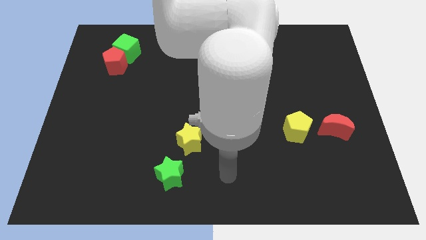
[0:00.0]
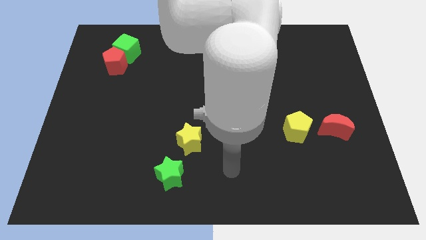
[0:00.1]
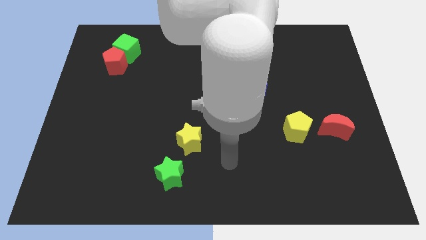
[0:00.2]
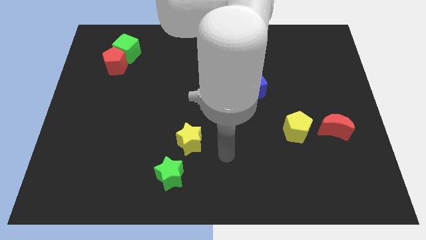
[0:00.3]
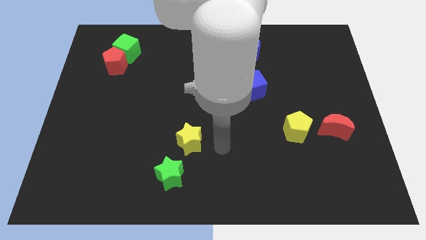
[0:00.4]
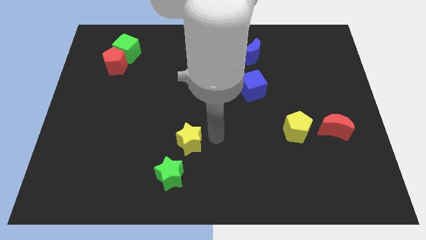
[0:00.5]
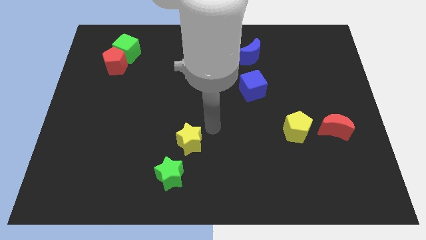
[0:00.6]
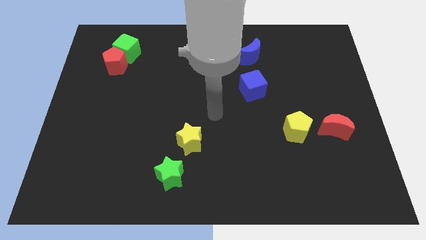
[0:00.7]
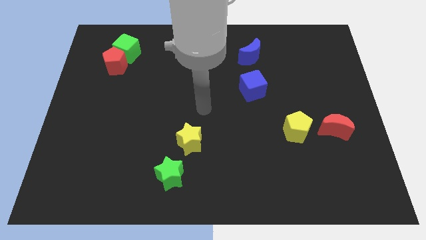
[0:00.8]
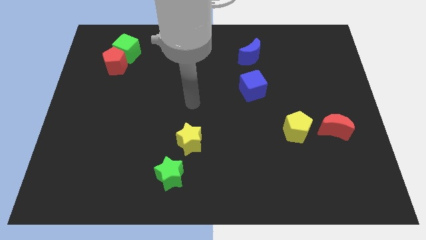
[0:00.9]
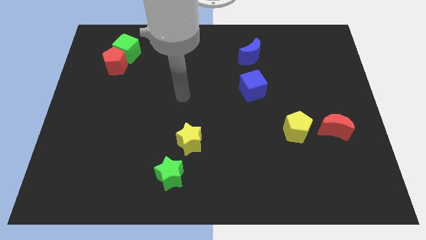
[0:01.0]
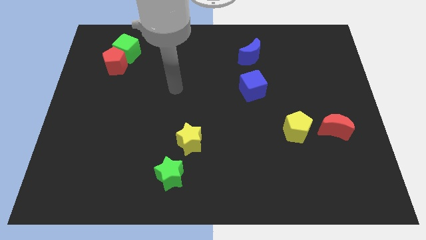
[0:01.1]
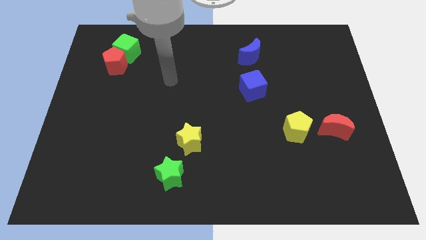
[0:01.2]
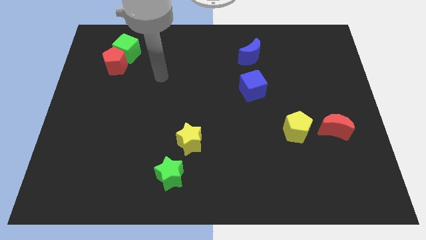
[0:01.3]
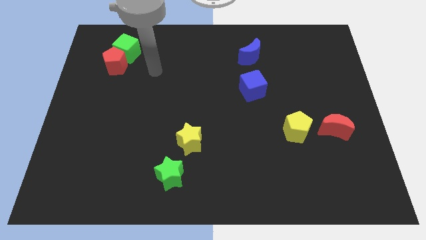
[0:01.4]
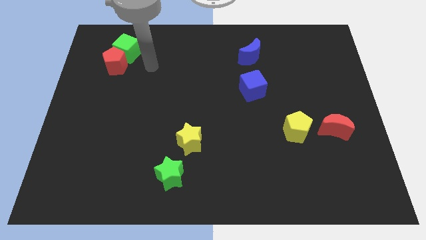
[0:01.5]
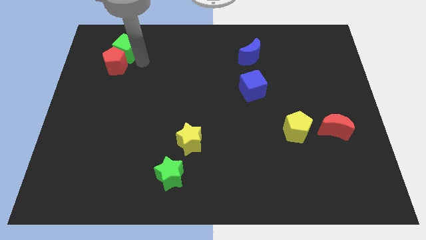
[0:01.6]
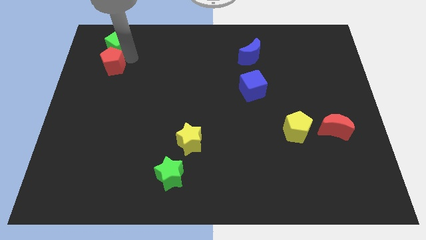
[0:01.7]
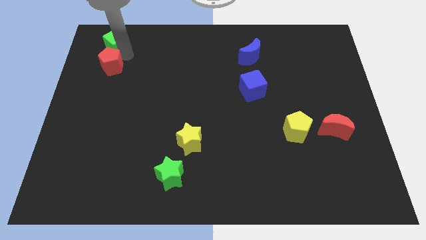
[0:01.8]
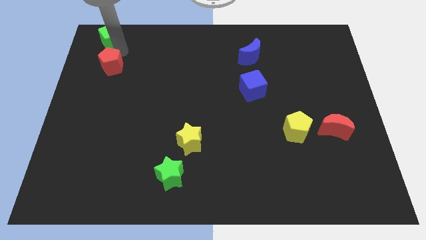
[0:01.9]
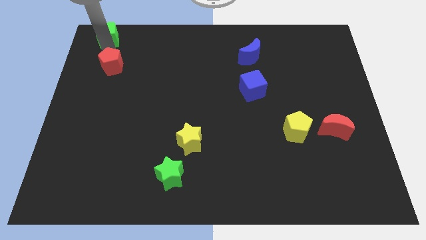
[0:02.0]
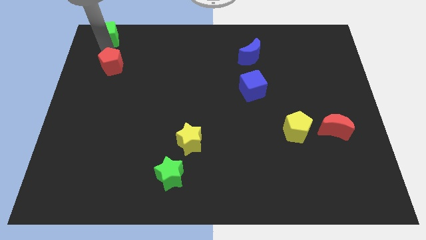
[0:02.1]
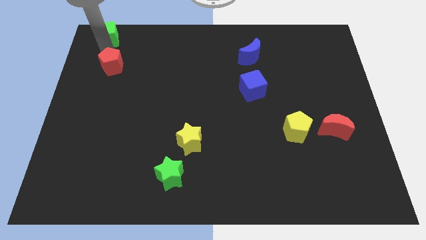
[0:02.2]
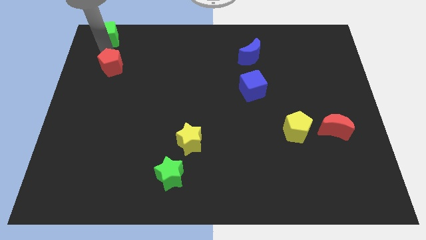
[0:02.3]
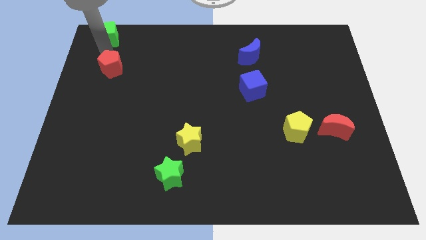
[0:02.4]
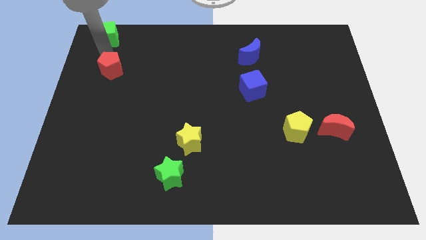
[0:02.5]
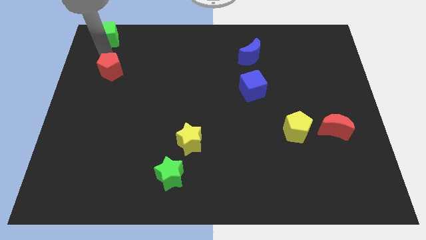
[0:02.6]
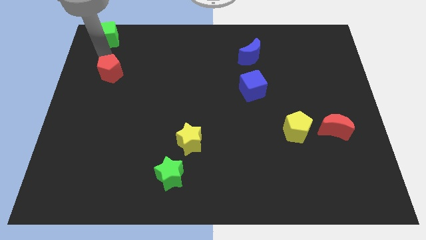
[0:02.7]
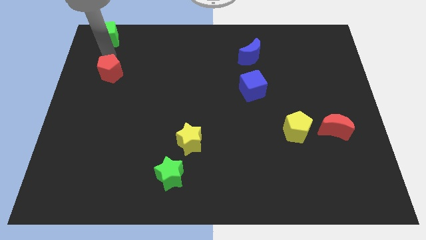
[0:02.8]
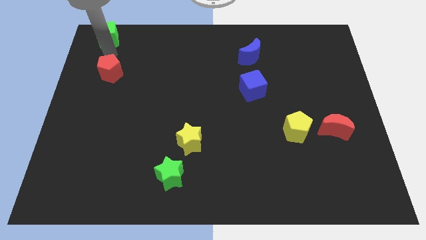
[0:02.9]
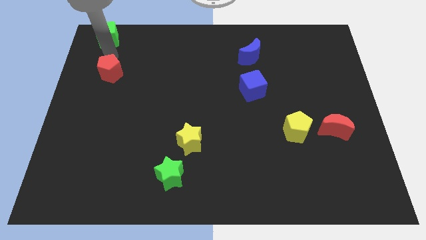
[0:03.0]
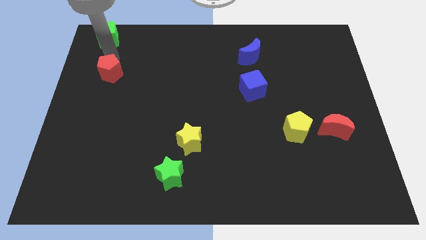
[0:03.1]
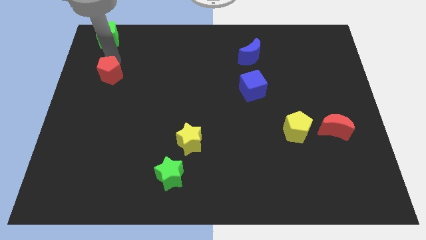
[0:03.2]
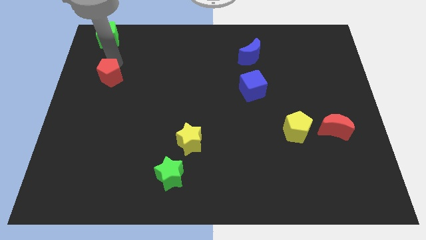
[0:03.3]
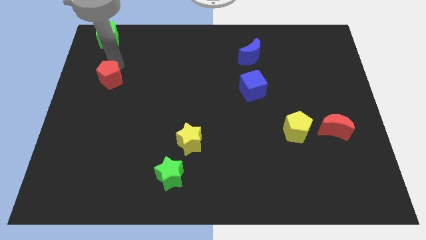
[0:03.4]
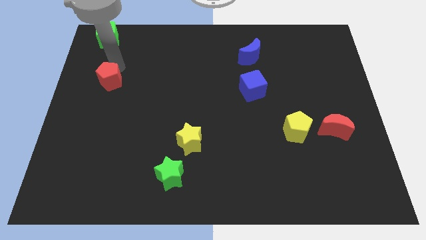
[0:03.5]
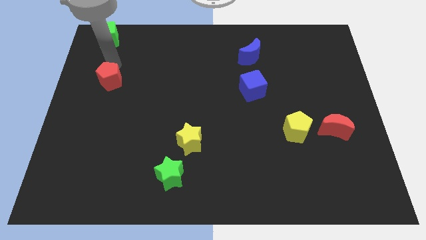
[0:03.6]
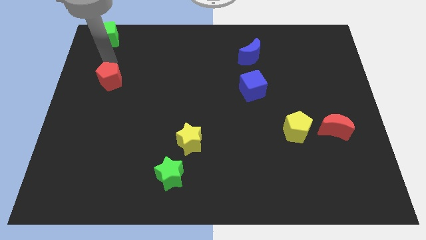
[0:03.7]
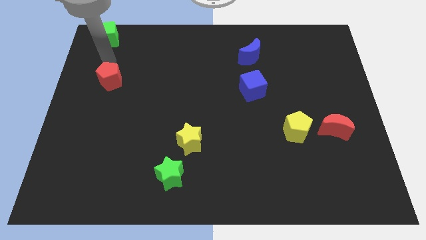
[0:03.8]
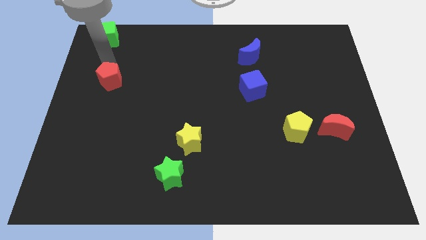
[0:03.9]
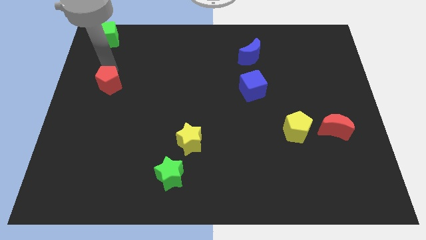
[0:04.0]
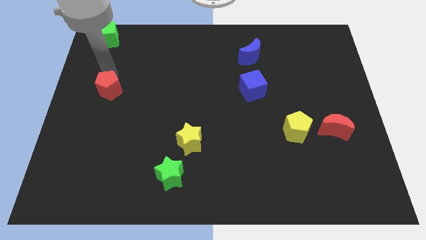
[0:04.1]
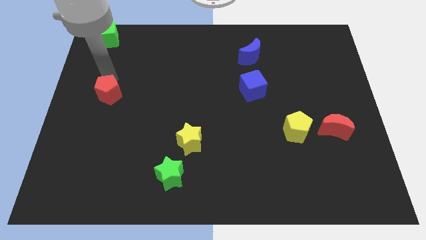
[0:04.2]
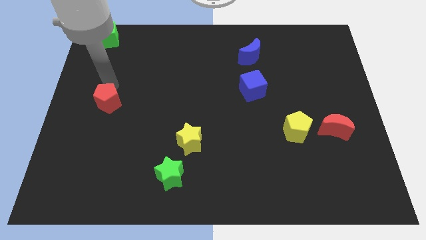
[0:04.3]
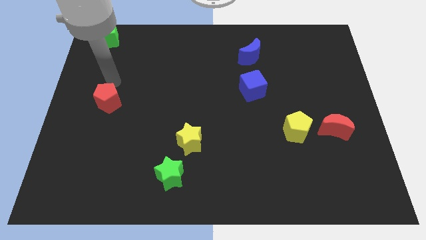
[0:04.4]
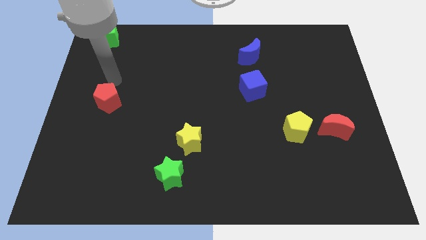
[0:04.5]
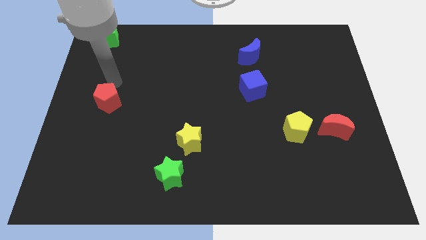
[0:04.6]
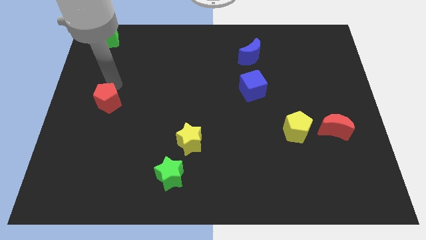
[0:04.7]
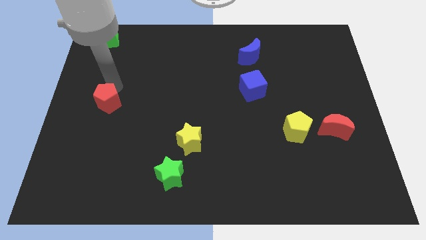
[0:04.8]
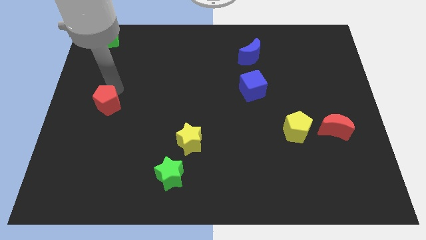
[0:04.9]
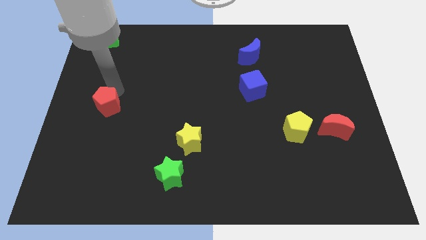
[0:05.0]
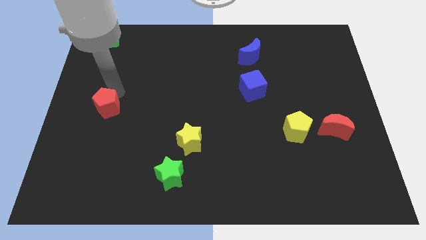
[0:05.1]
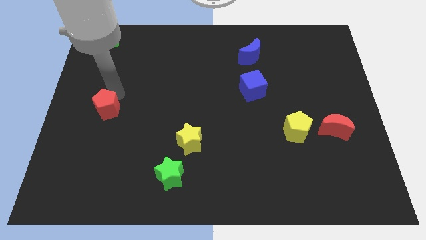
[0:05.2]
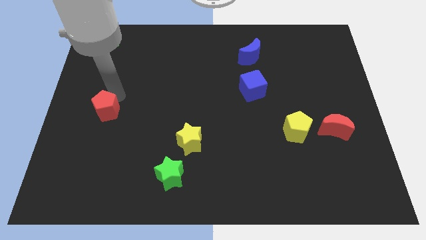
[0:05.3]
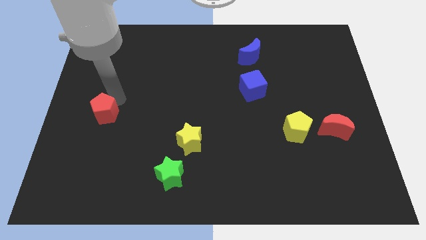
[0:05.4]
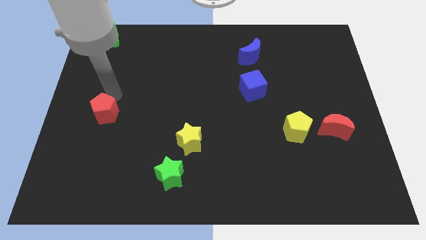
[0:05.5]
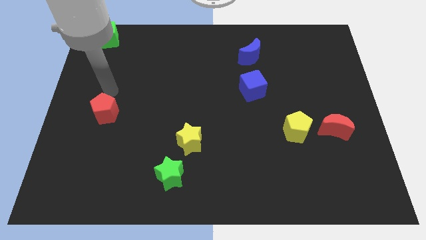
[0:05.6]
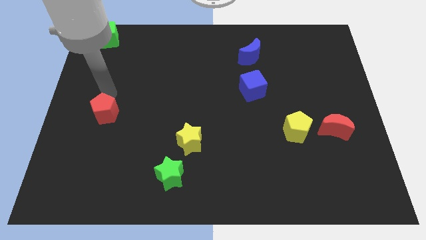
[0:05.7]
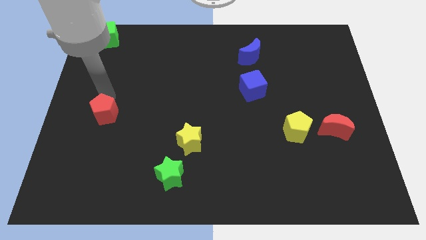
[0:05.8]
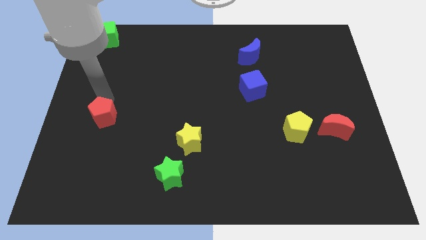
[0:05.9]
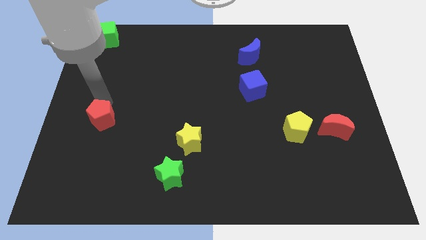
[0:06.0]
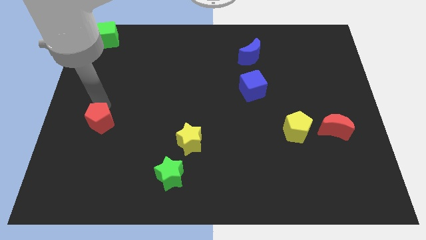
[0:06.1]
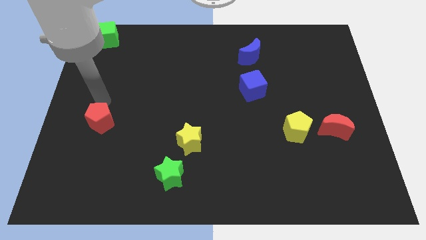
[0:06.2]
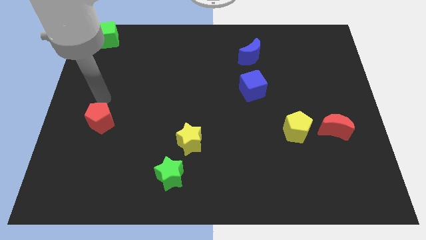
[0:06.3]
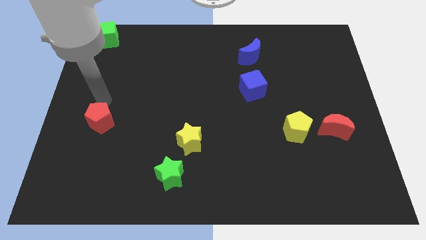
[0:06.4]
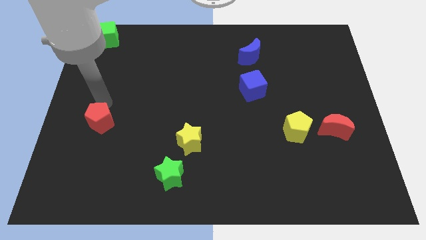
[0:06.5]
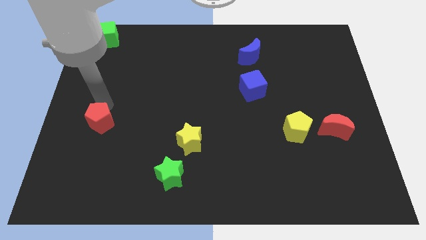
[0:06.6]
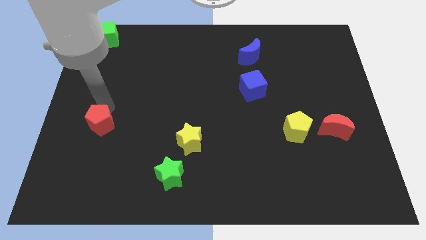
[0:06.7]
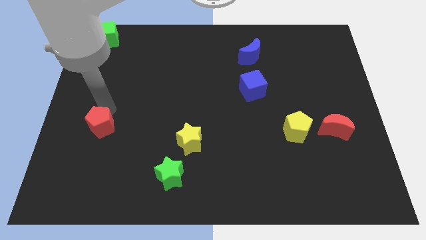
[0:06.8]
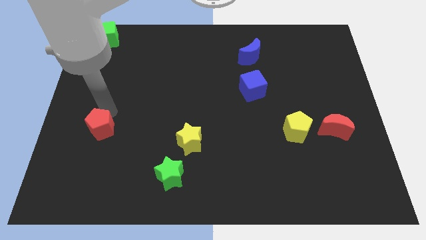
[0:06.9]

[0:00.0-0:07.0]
move the red pentagon downwards

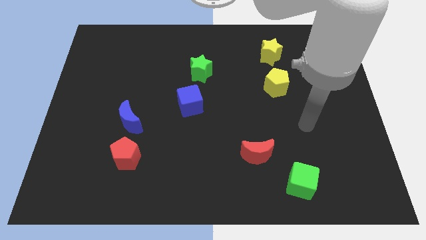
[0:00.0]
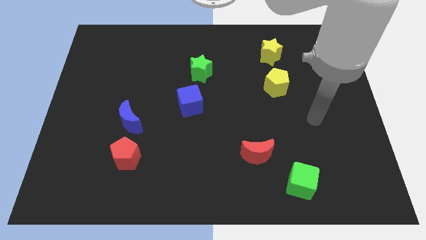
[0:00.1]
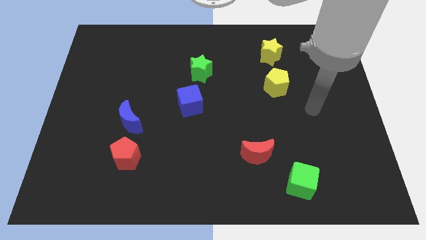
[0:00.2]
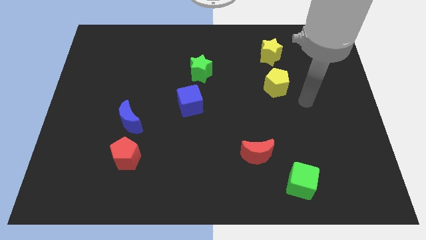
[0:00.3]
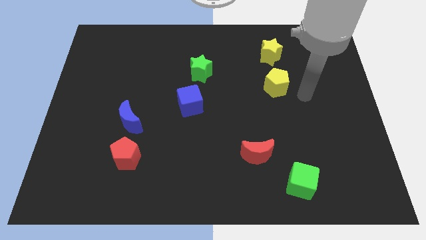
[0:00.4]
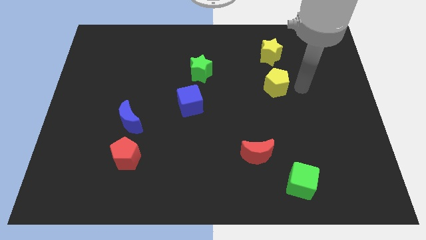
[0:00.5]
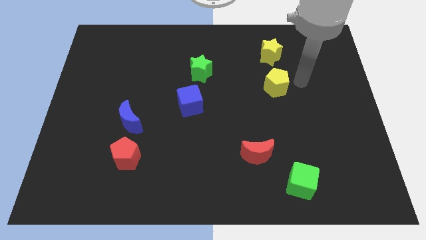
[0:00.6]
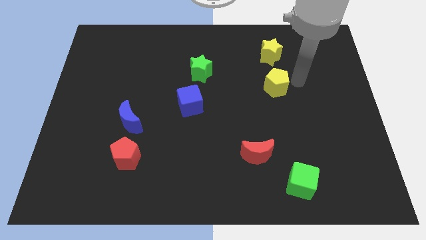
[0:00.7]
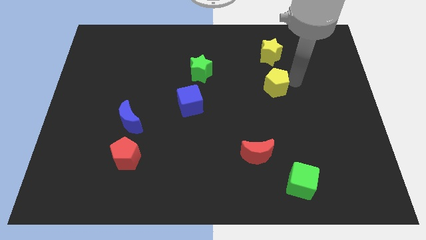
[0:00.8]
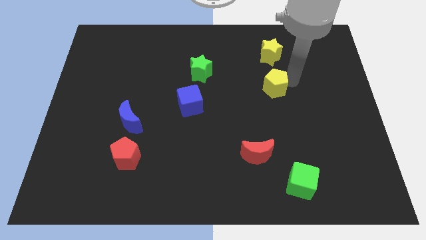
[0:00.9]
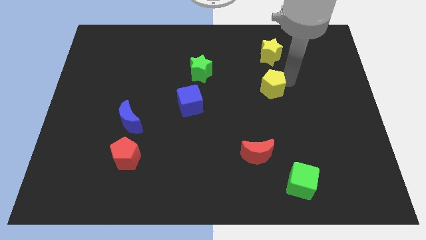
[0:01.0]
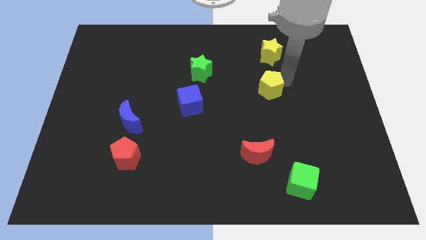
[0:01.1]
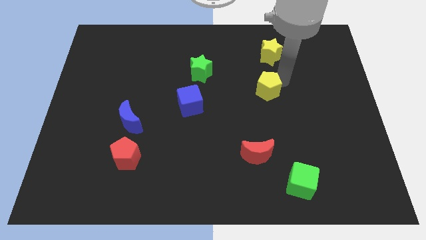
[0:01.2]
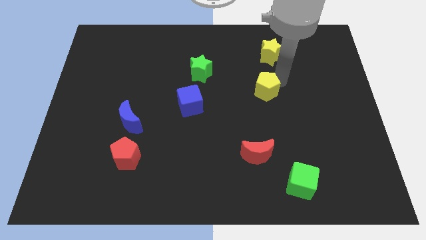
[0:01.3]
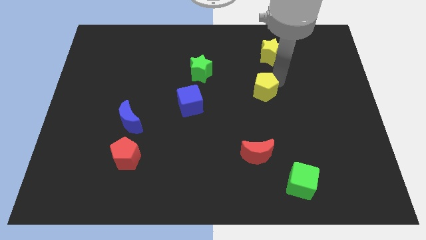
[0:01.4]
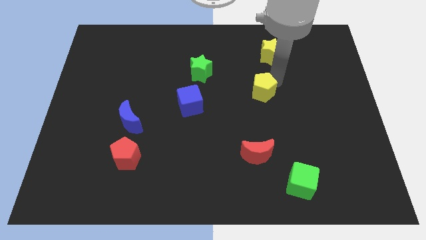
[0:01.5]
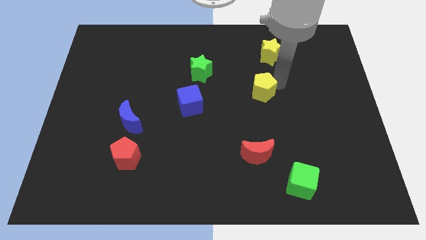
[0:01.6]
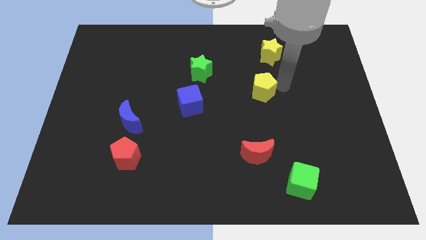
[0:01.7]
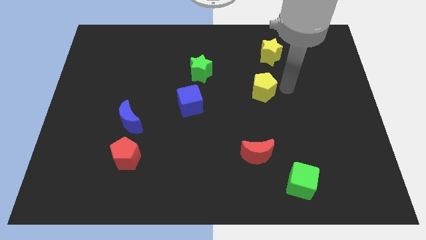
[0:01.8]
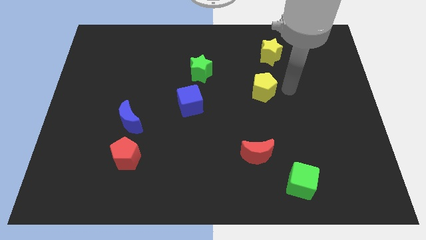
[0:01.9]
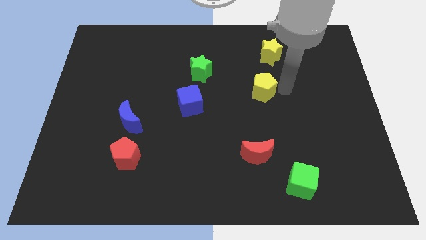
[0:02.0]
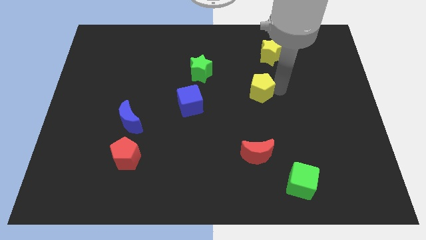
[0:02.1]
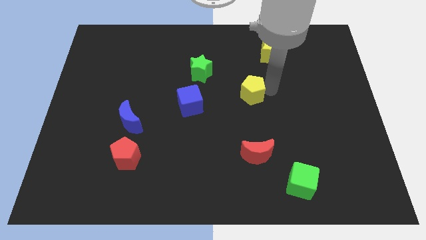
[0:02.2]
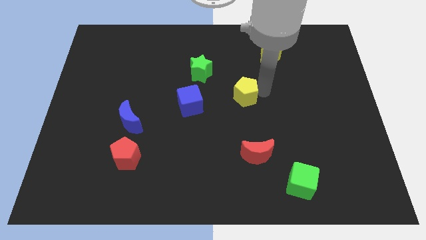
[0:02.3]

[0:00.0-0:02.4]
slightly push the yellow pentagon to the left
